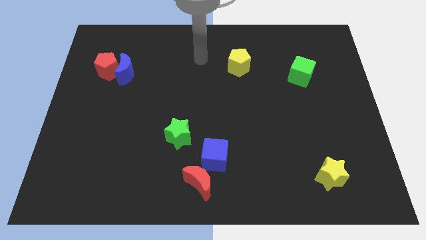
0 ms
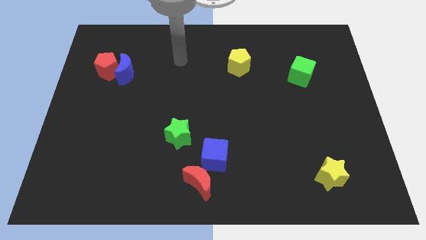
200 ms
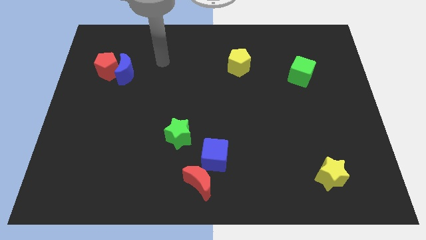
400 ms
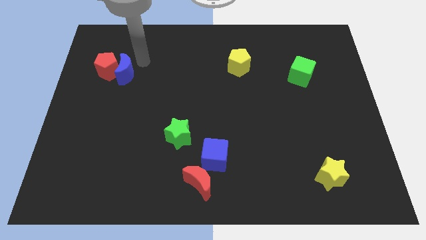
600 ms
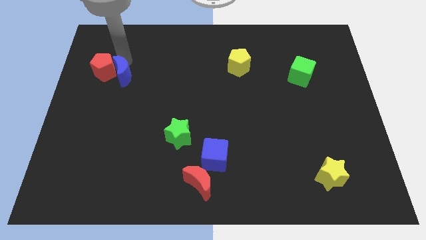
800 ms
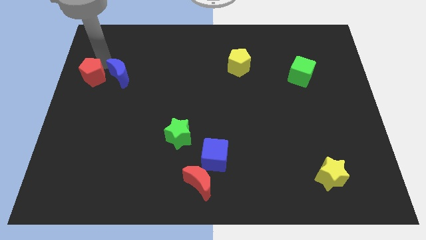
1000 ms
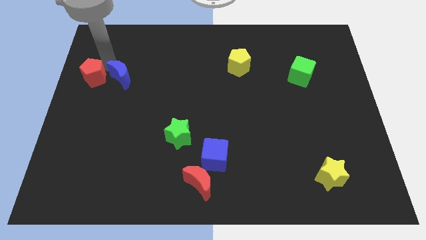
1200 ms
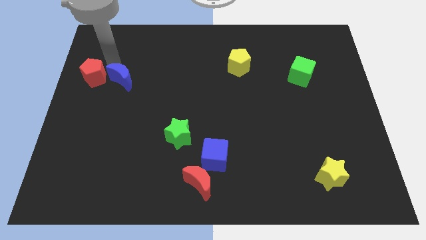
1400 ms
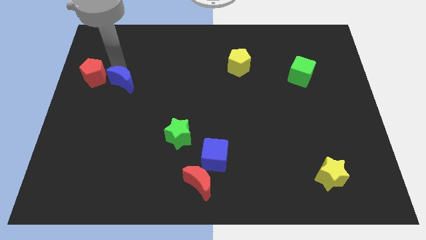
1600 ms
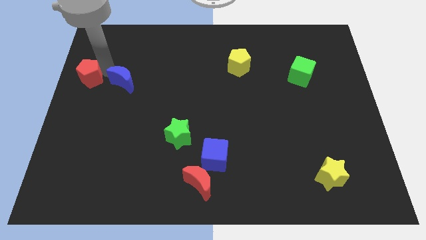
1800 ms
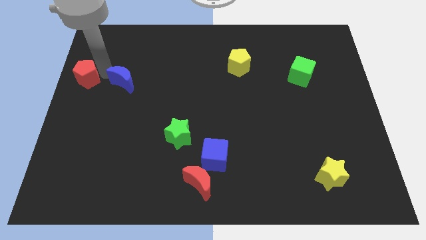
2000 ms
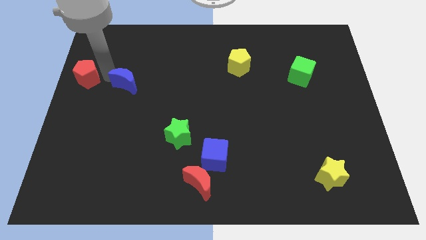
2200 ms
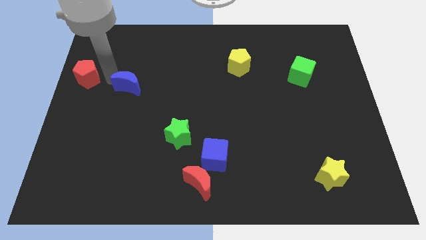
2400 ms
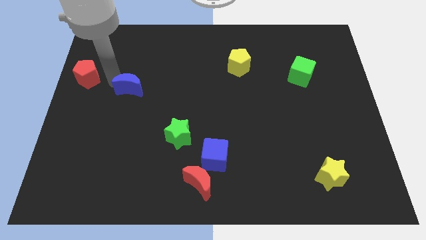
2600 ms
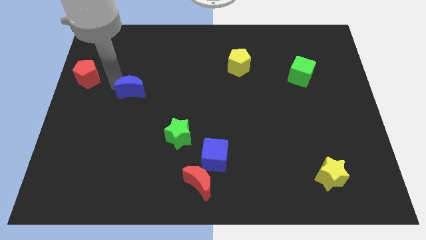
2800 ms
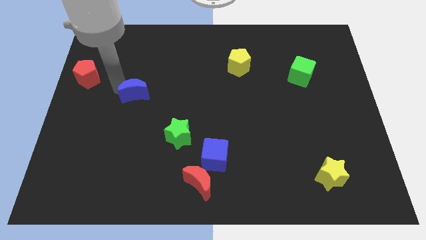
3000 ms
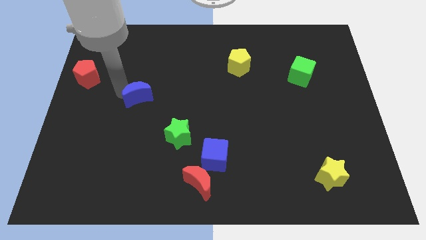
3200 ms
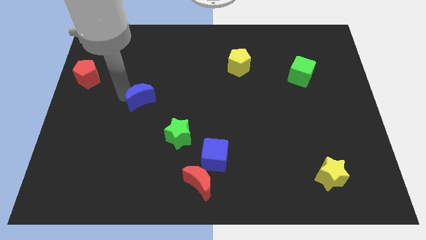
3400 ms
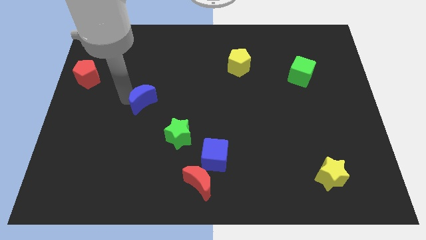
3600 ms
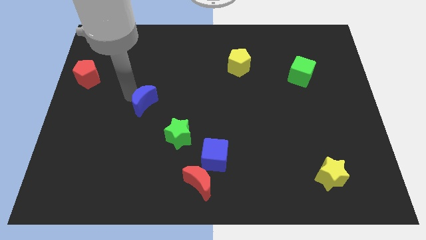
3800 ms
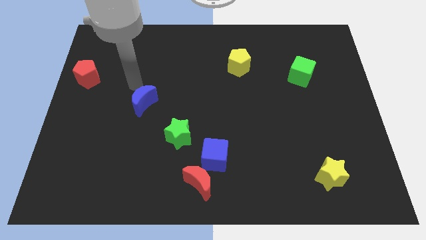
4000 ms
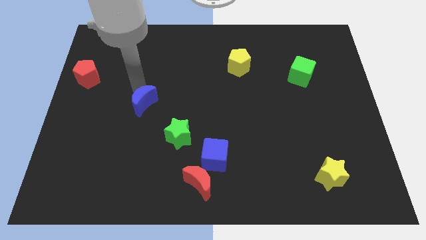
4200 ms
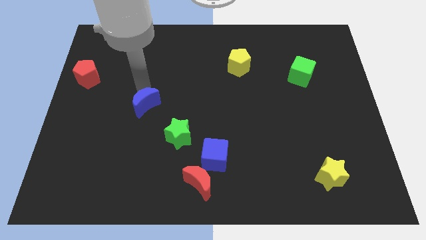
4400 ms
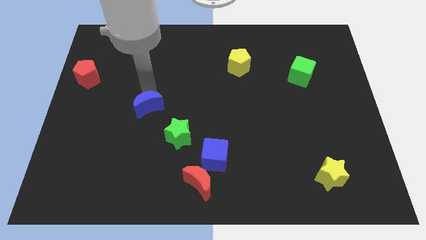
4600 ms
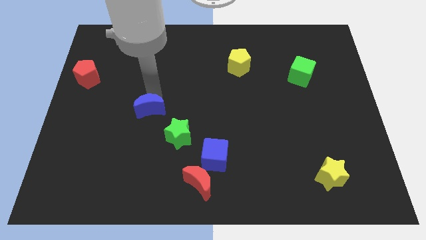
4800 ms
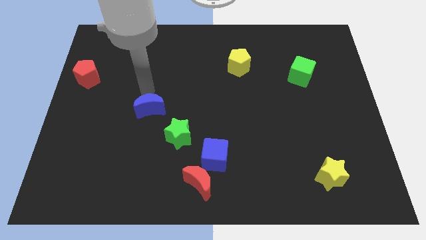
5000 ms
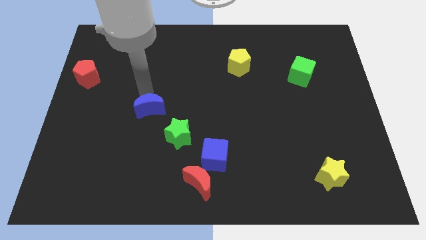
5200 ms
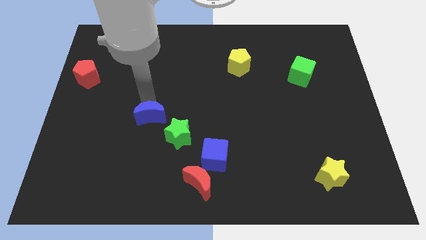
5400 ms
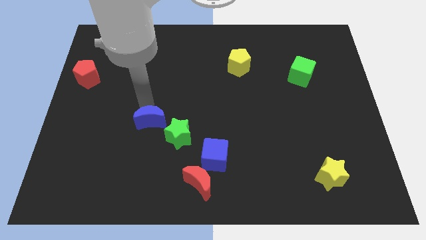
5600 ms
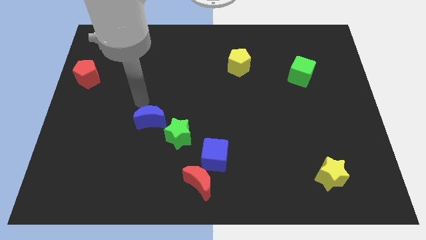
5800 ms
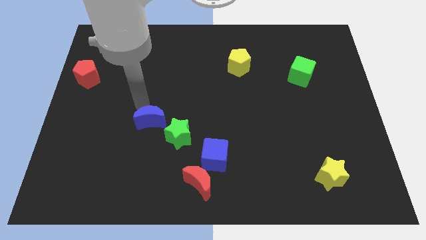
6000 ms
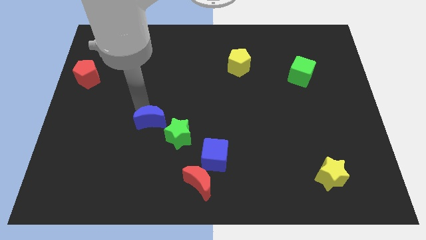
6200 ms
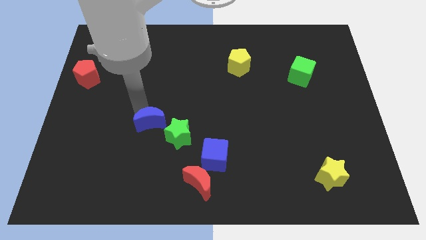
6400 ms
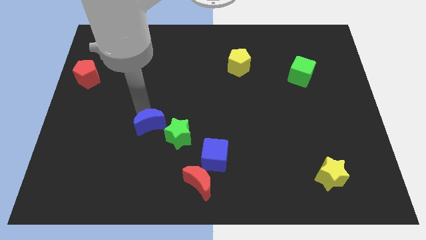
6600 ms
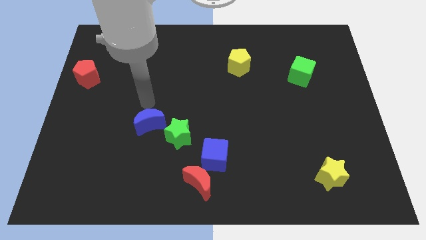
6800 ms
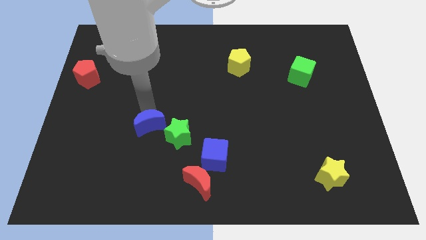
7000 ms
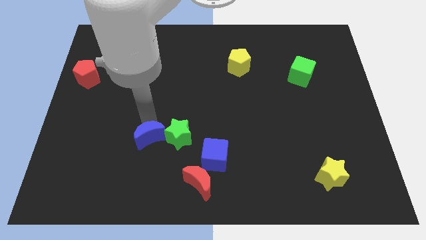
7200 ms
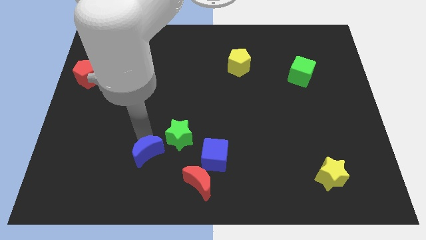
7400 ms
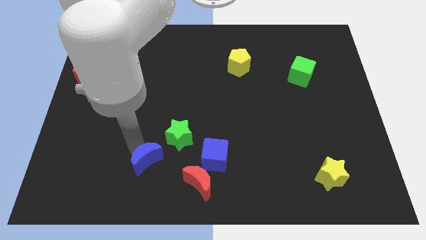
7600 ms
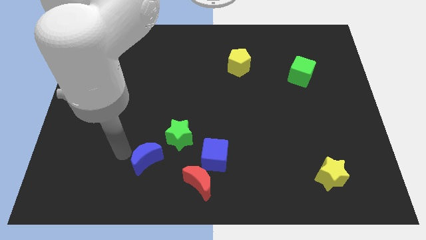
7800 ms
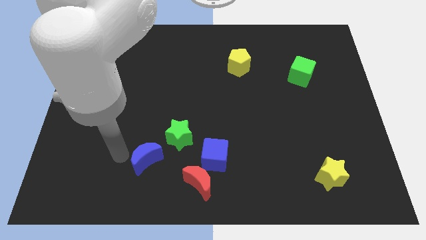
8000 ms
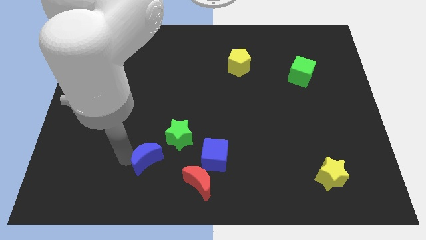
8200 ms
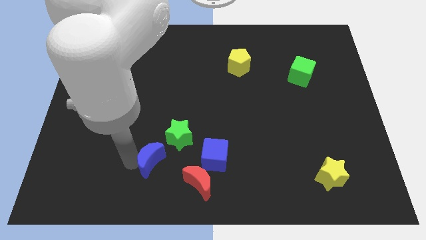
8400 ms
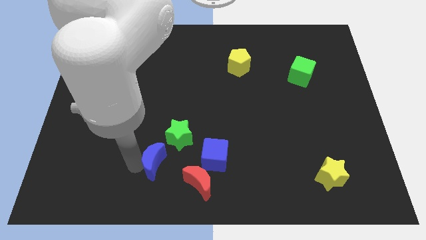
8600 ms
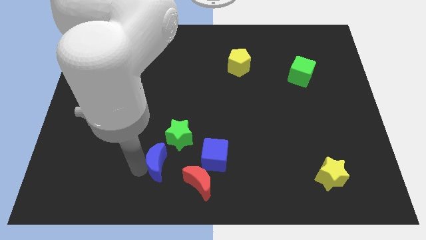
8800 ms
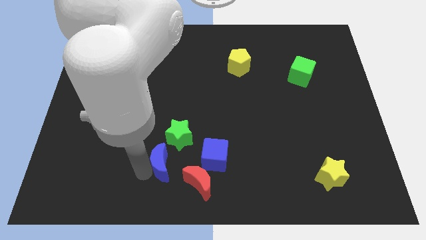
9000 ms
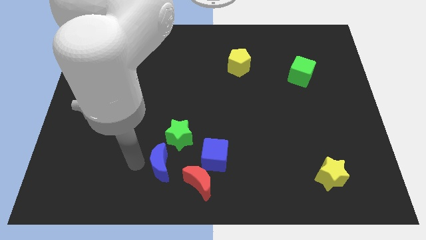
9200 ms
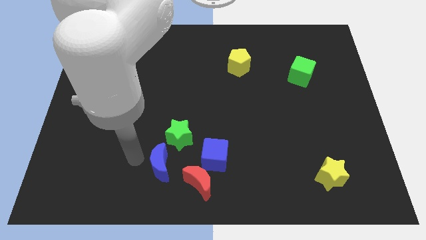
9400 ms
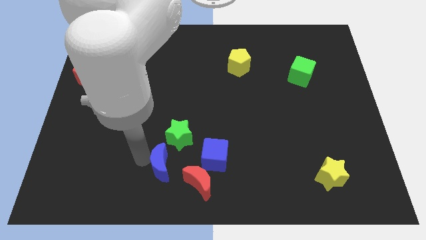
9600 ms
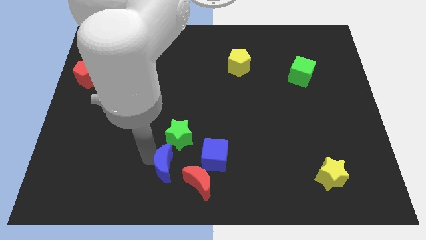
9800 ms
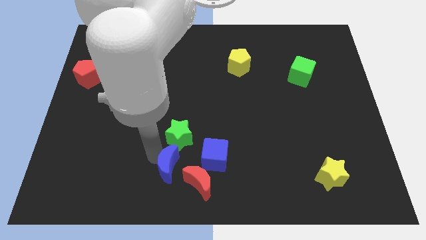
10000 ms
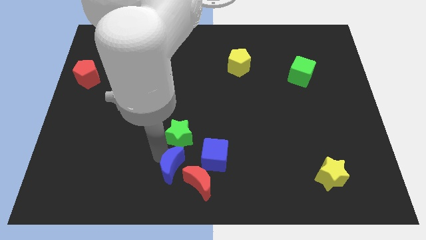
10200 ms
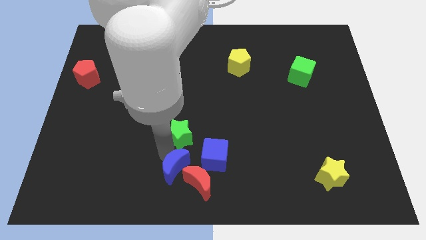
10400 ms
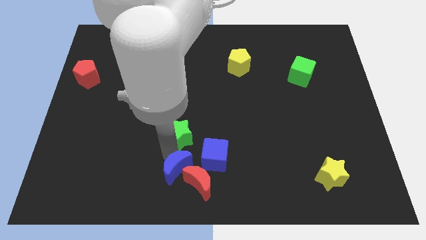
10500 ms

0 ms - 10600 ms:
push the blue moon next to the red moon

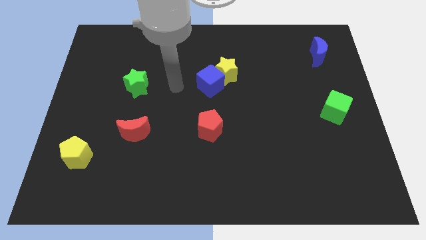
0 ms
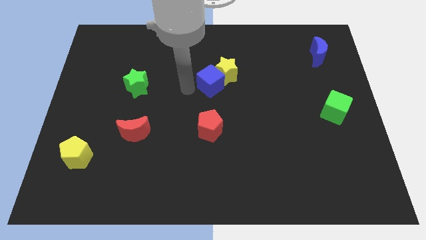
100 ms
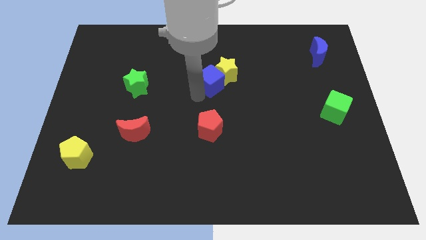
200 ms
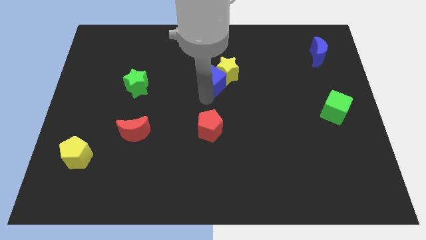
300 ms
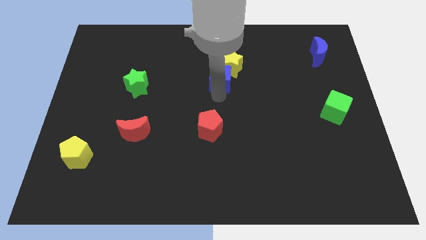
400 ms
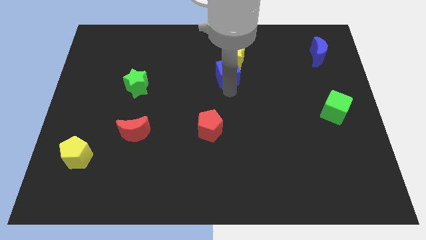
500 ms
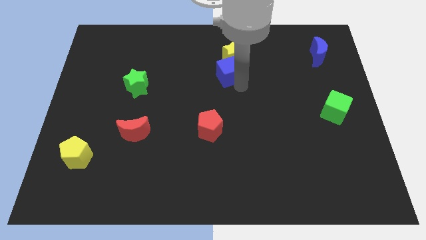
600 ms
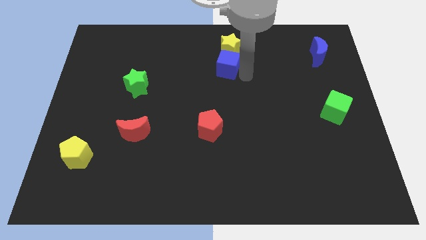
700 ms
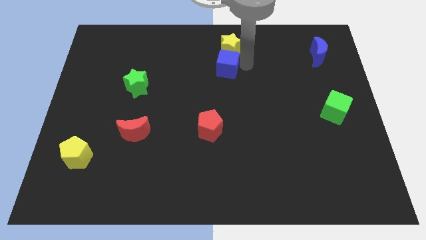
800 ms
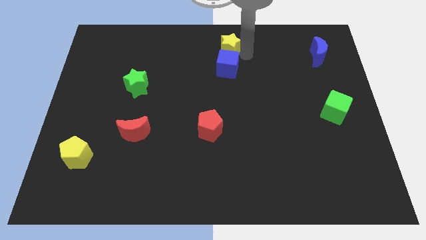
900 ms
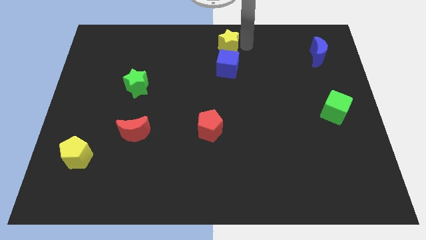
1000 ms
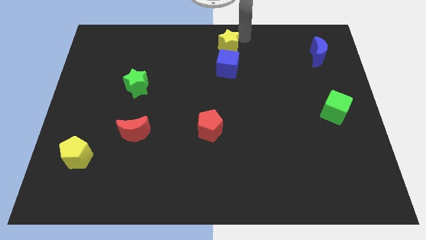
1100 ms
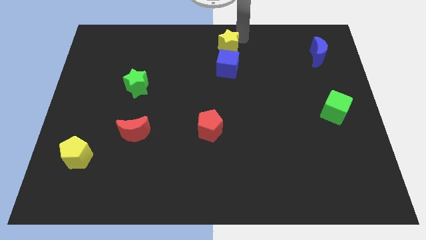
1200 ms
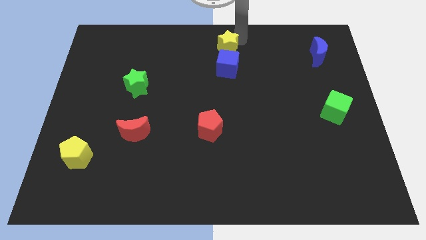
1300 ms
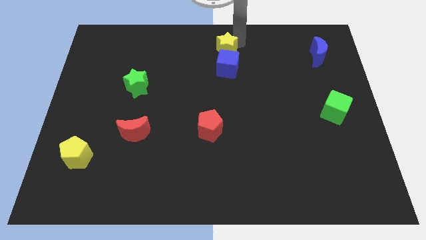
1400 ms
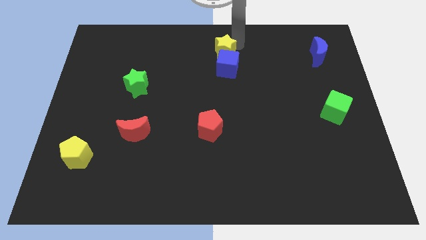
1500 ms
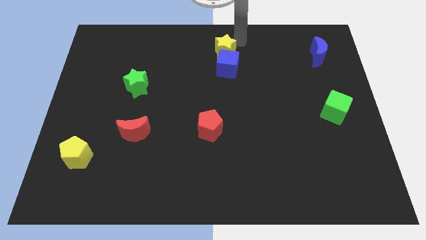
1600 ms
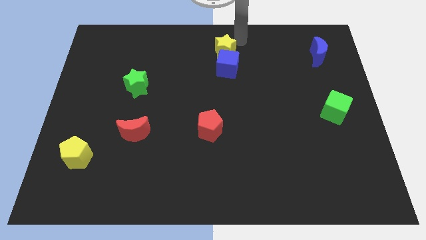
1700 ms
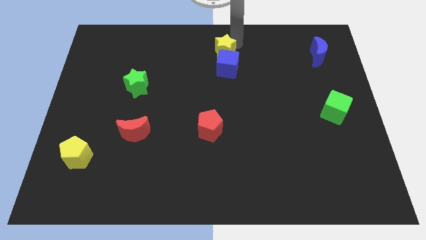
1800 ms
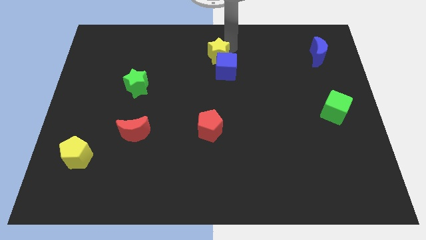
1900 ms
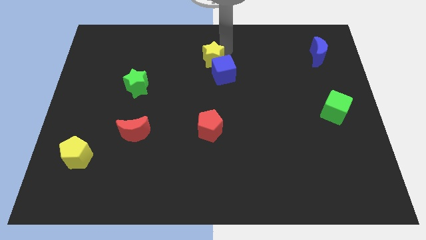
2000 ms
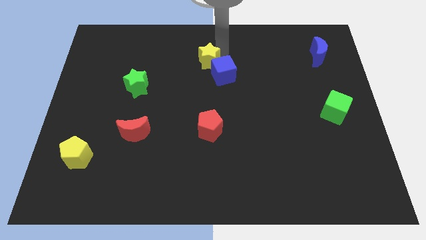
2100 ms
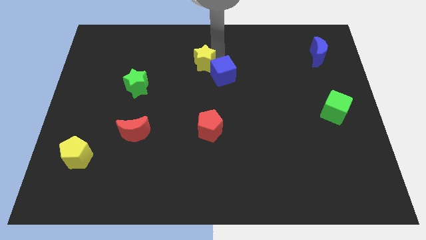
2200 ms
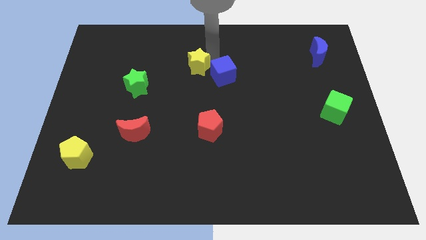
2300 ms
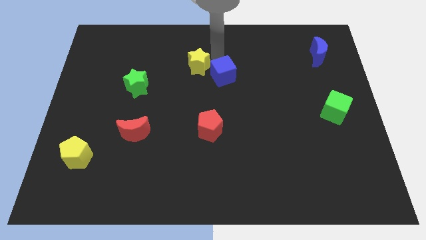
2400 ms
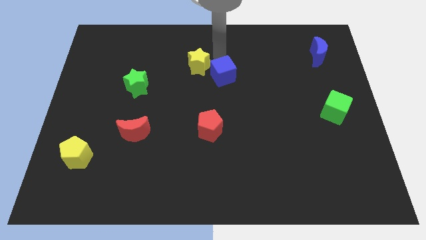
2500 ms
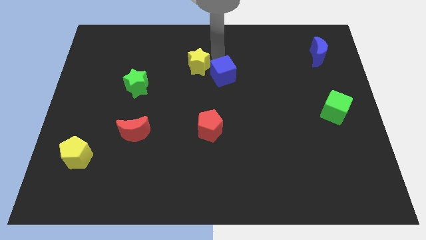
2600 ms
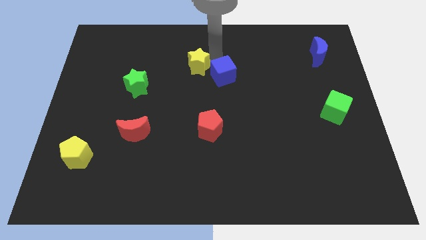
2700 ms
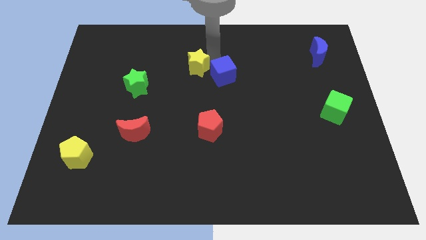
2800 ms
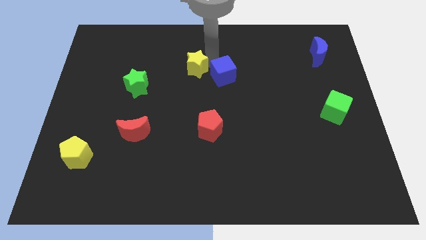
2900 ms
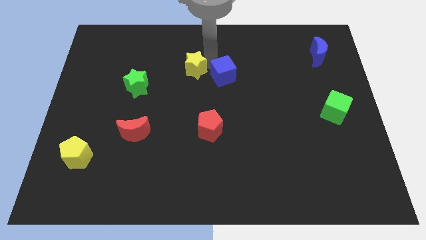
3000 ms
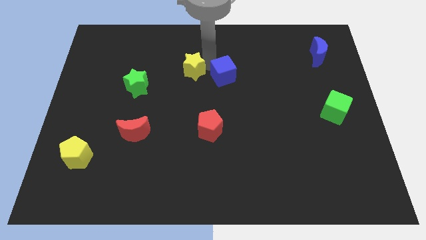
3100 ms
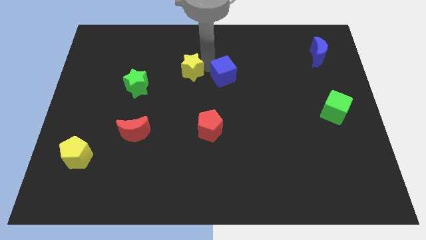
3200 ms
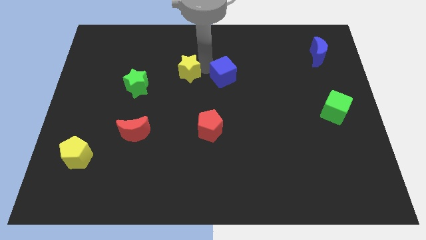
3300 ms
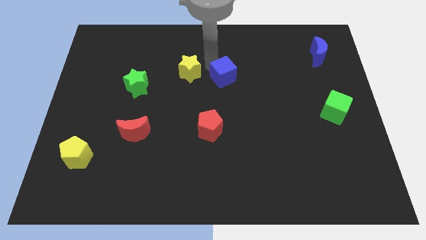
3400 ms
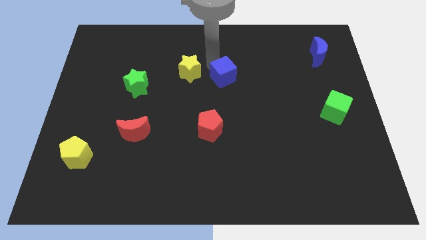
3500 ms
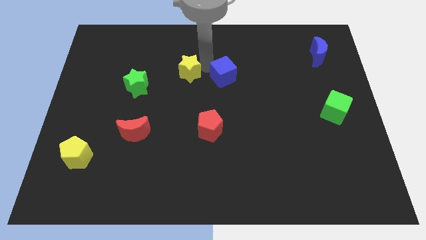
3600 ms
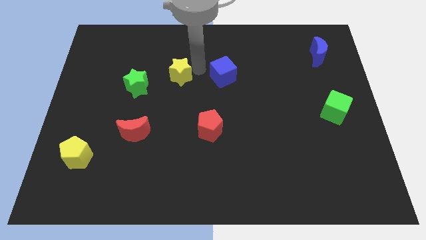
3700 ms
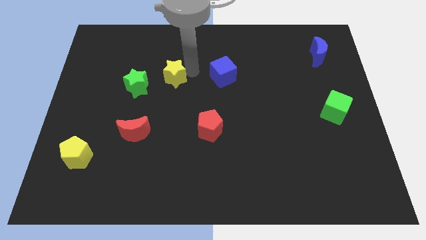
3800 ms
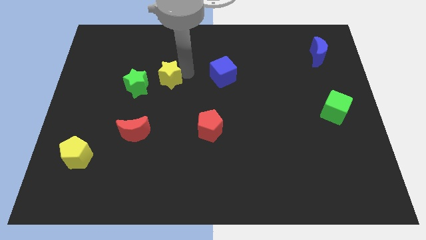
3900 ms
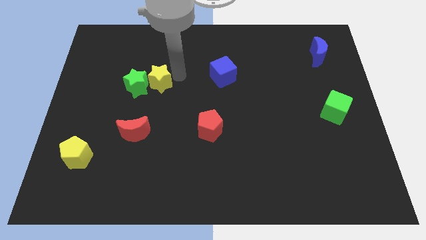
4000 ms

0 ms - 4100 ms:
slide the yellow star next to the green star
